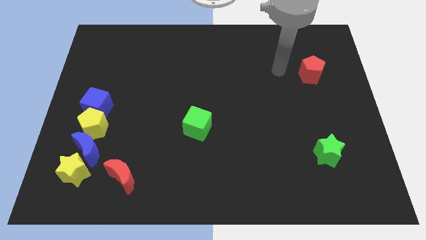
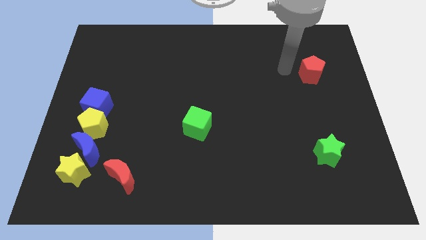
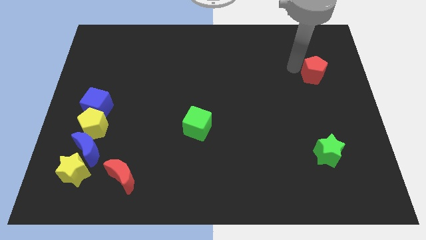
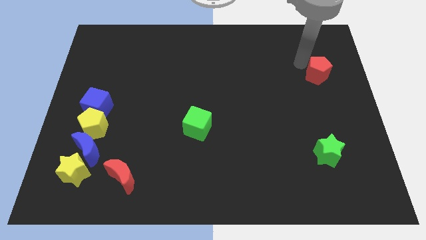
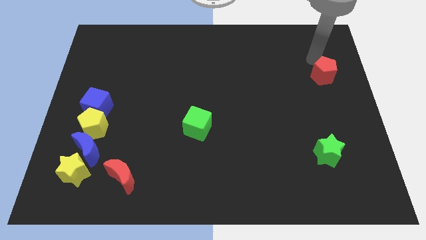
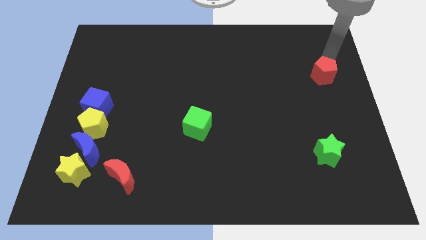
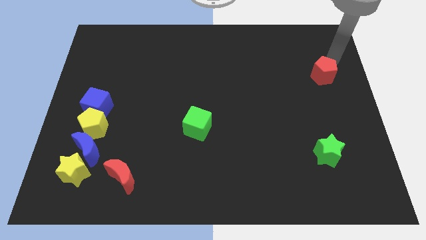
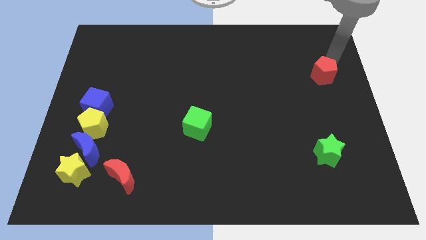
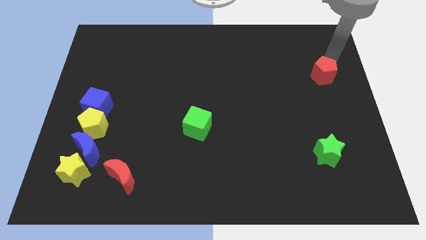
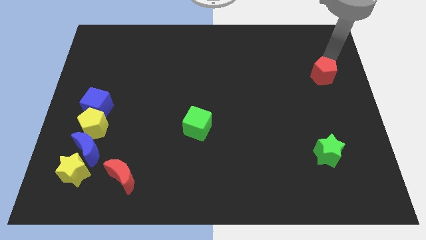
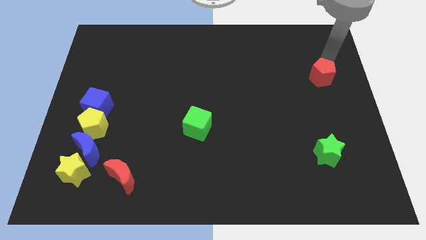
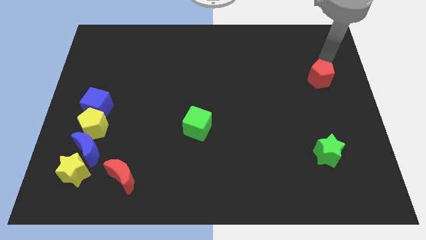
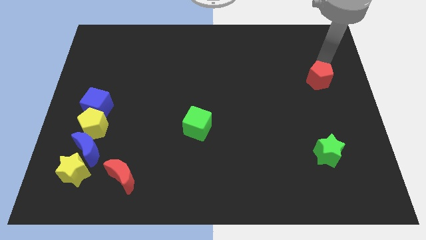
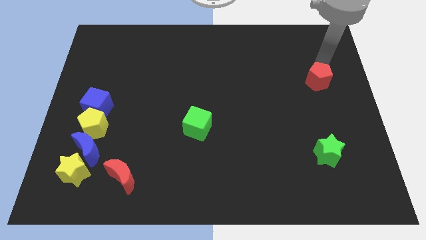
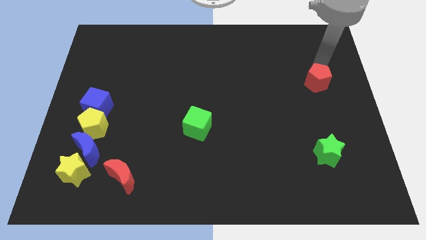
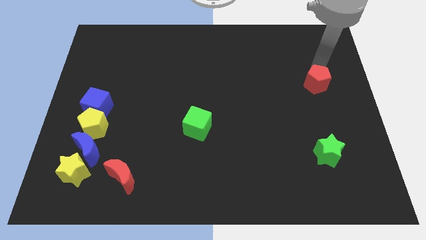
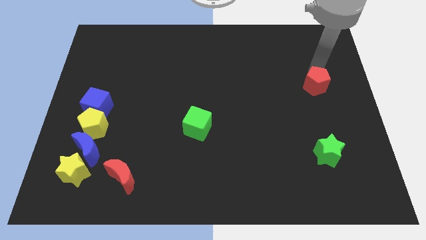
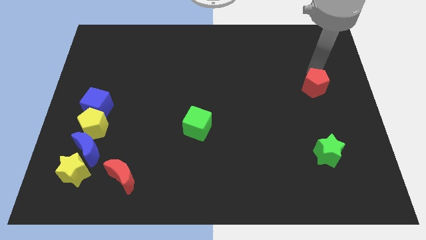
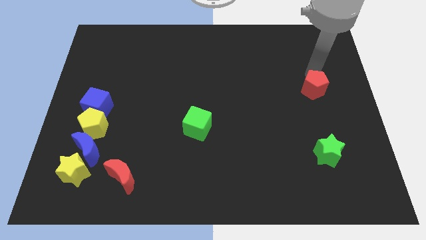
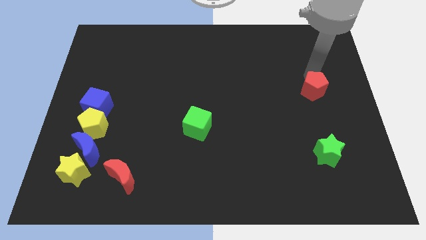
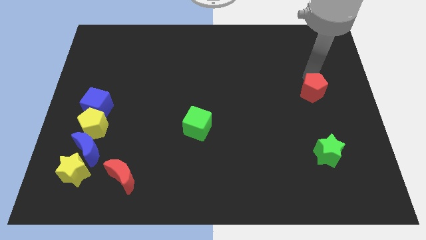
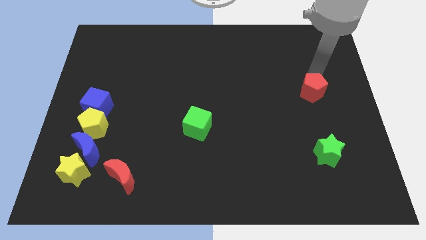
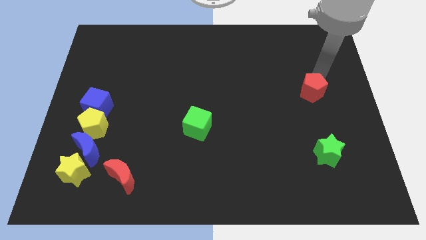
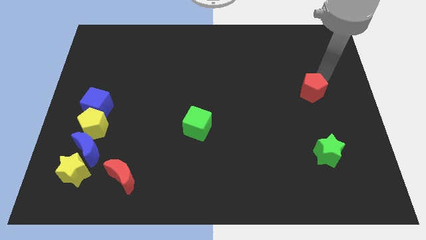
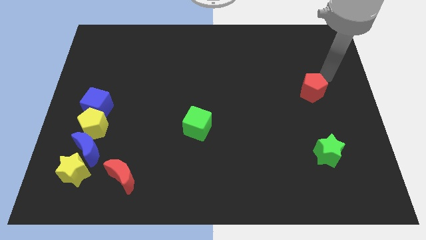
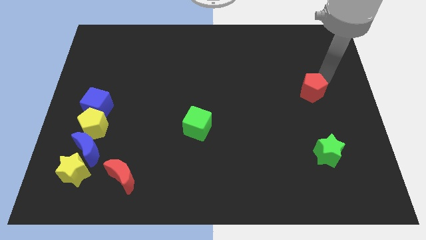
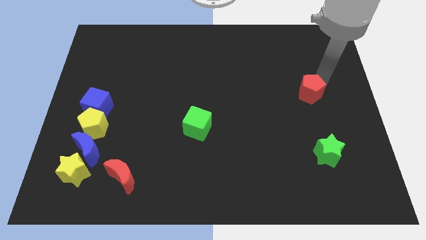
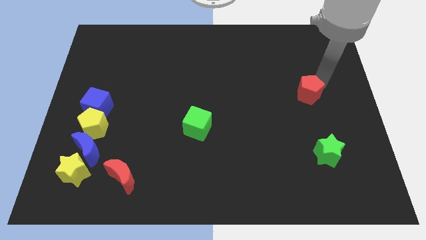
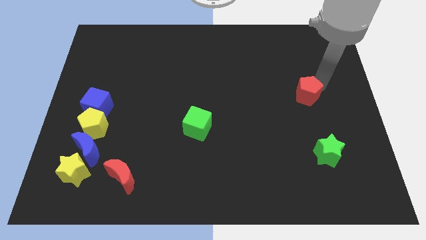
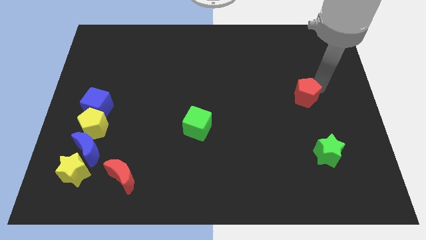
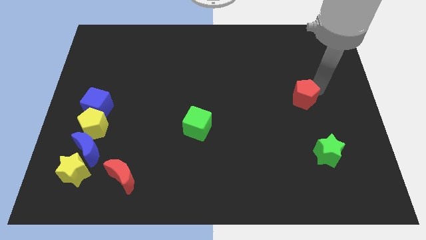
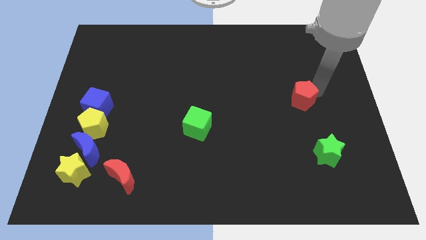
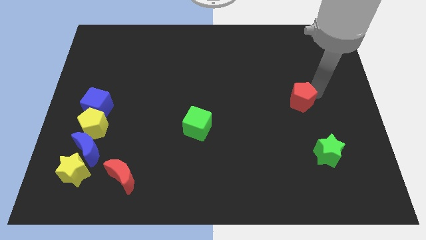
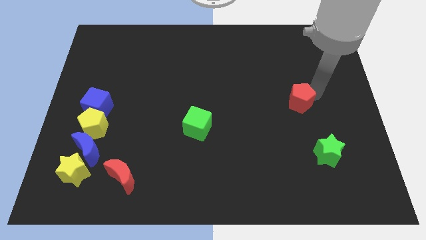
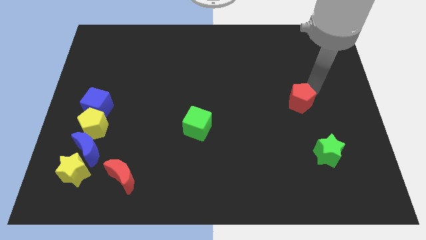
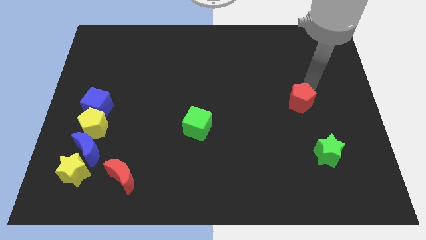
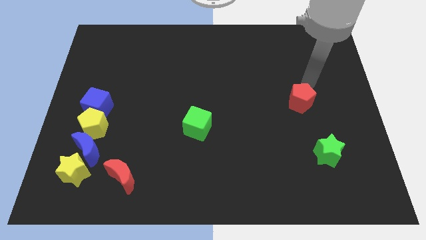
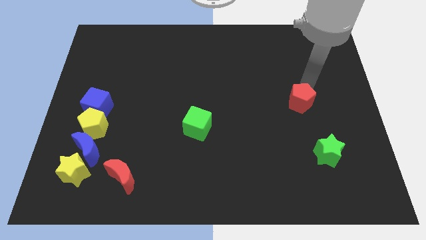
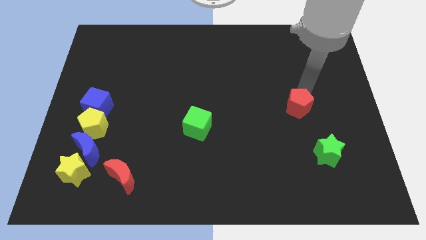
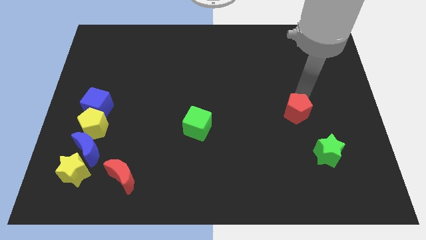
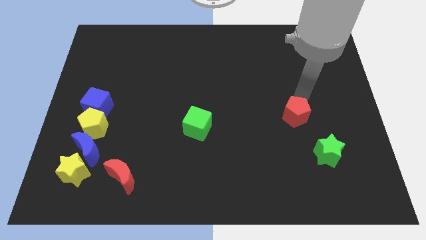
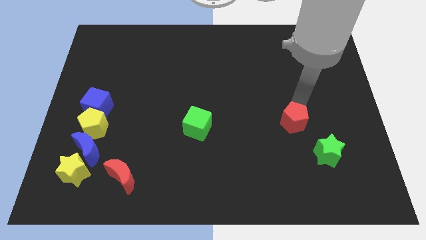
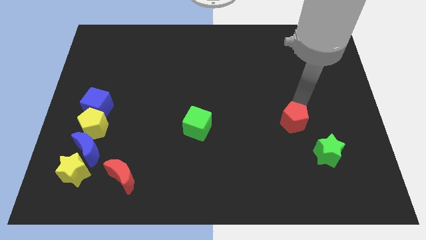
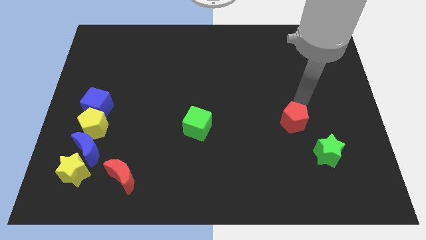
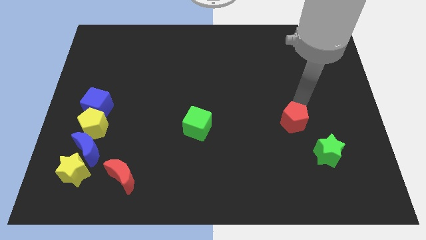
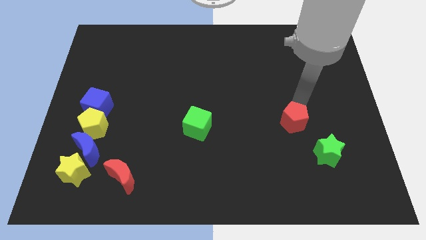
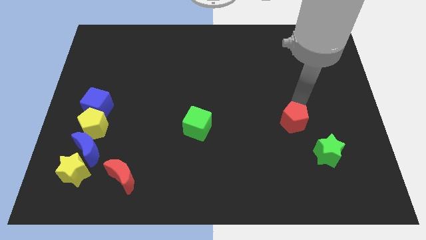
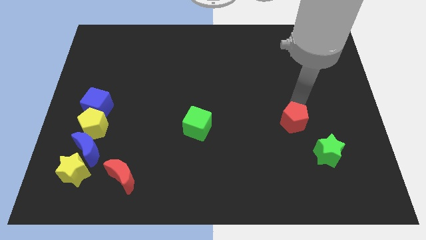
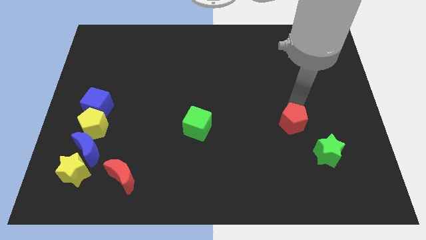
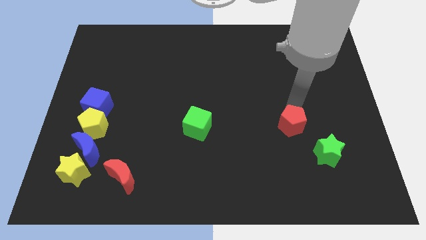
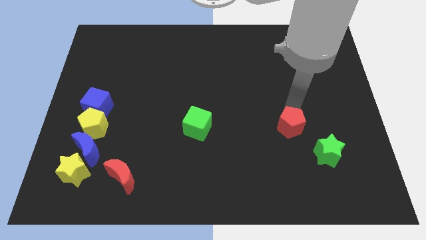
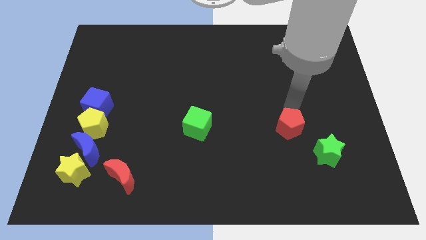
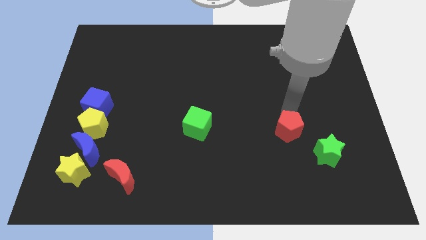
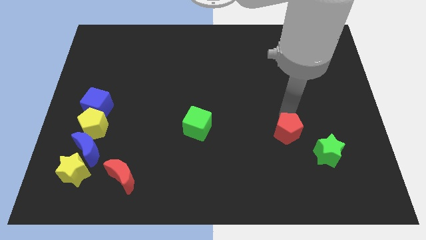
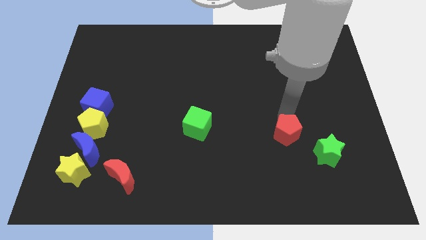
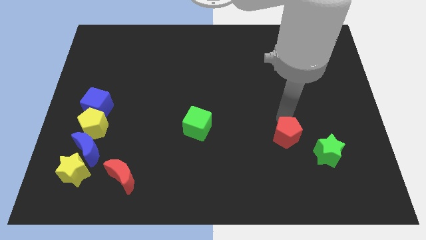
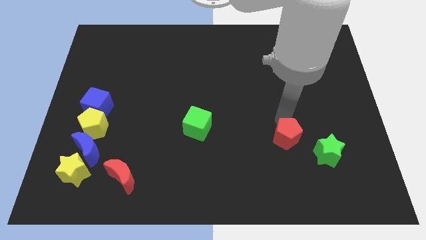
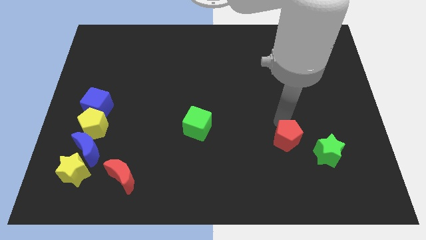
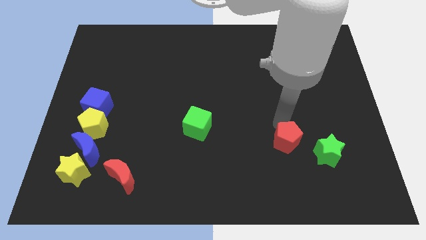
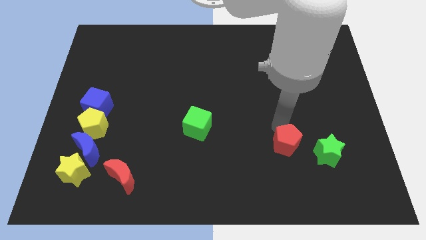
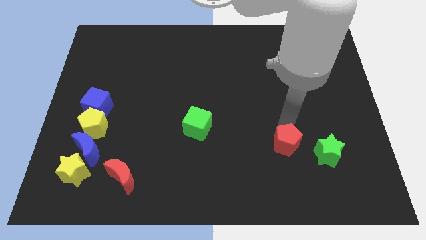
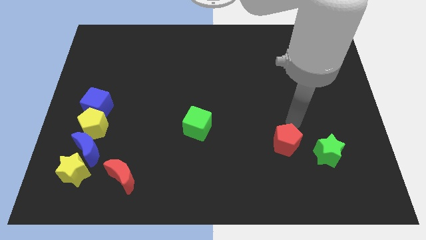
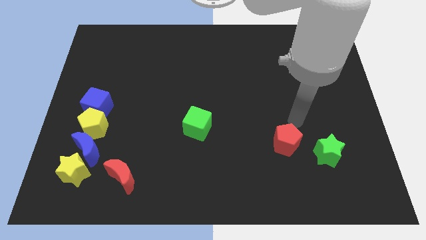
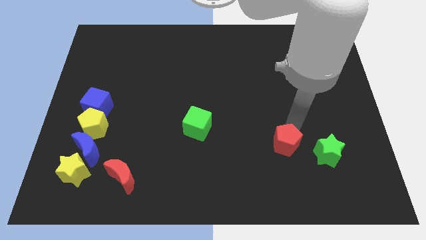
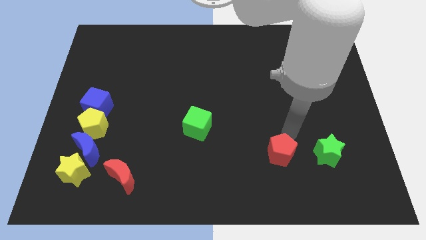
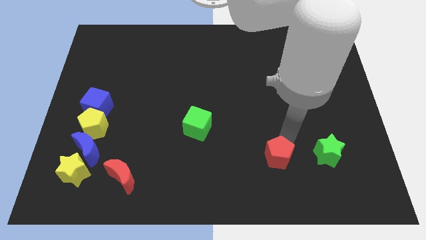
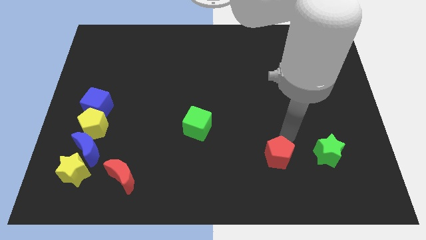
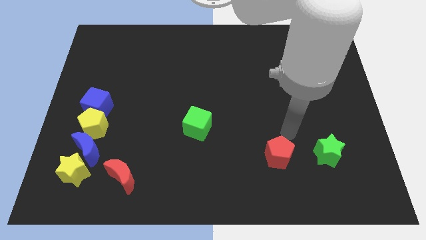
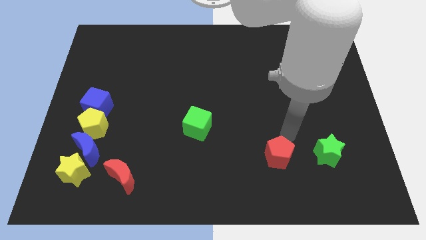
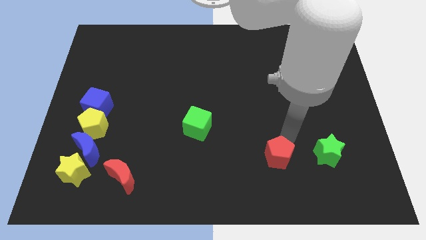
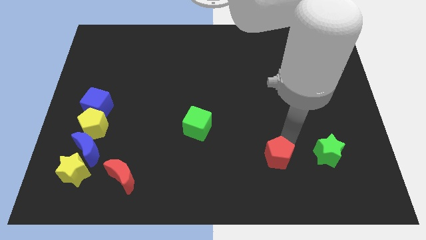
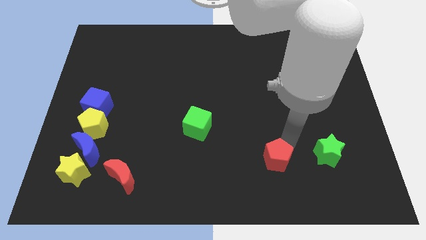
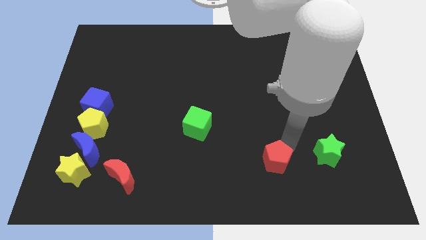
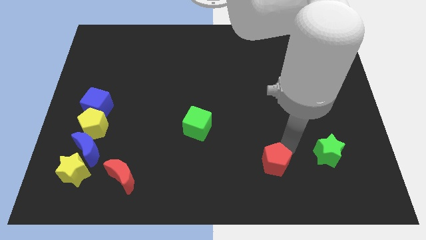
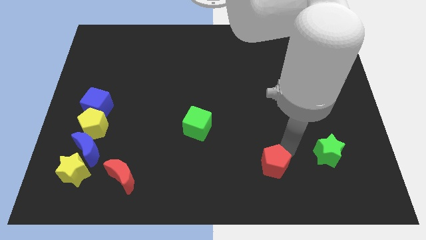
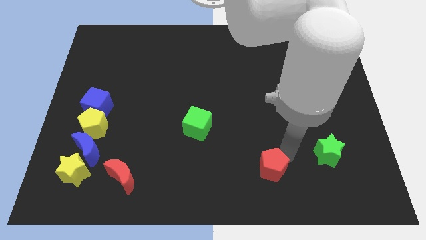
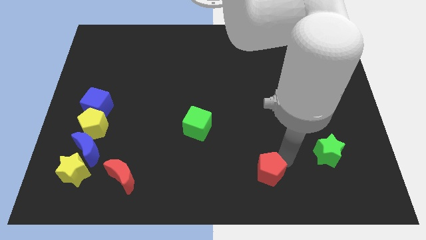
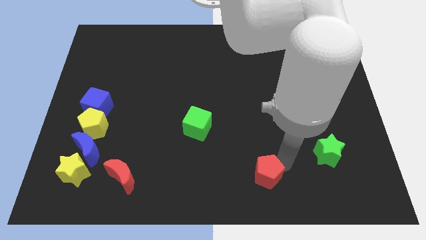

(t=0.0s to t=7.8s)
slide the red pentagon to the bottom
